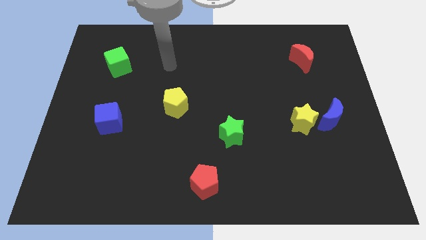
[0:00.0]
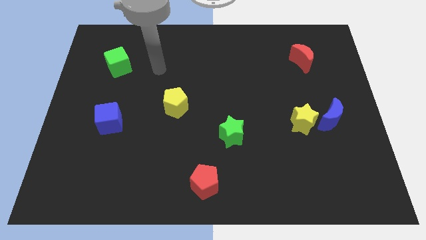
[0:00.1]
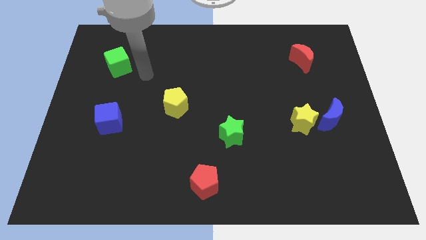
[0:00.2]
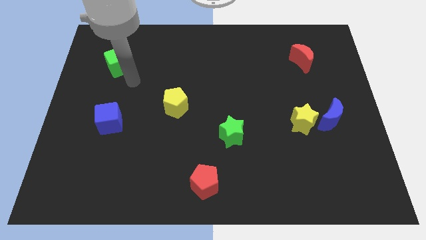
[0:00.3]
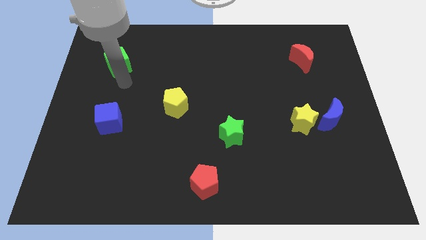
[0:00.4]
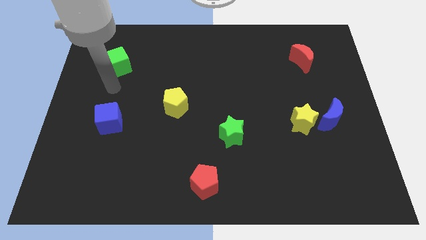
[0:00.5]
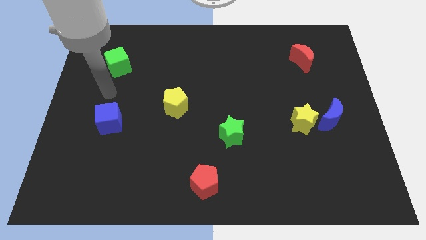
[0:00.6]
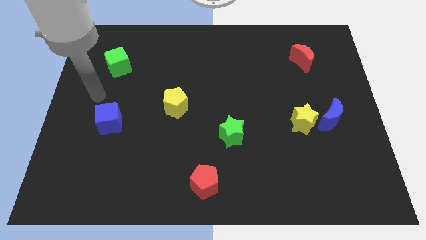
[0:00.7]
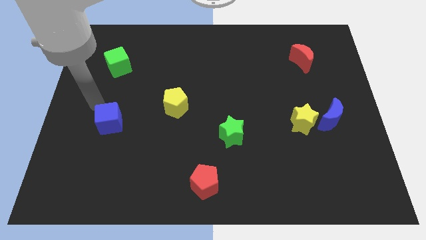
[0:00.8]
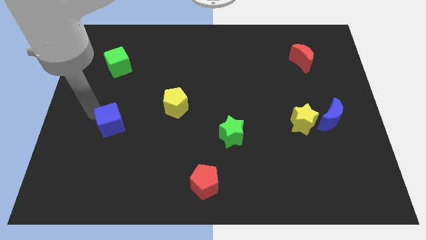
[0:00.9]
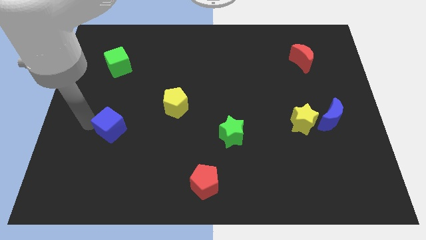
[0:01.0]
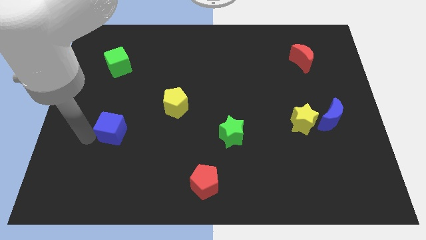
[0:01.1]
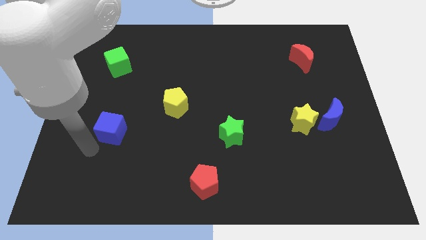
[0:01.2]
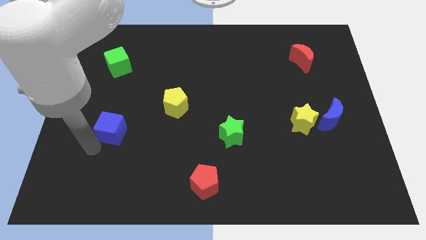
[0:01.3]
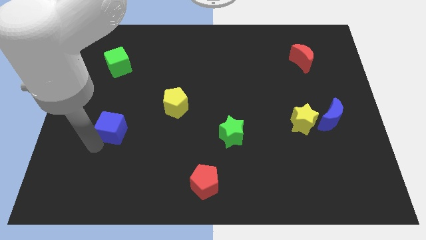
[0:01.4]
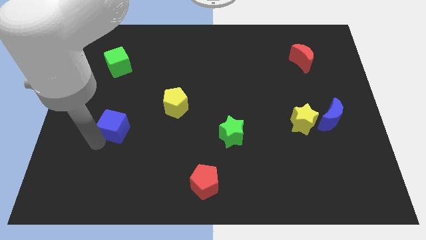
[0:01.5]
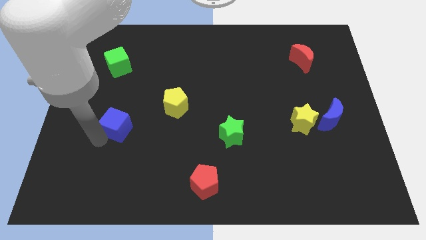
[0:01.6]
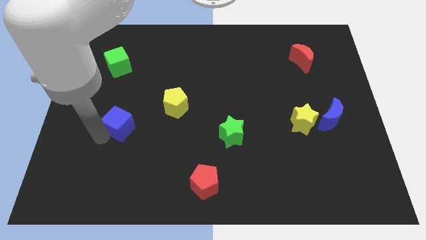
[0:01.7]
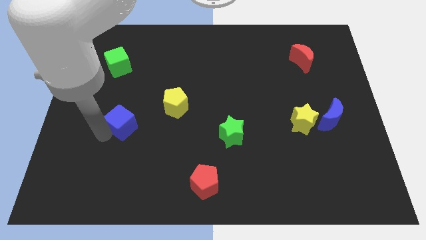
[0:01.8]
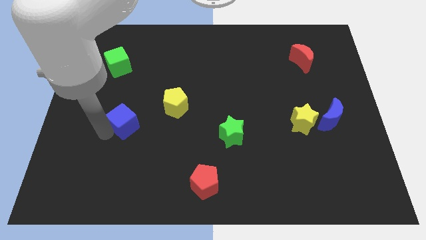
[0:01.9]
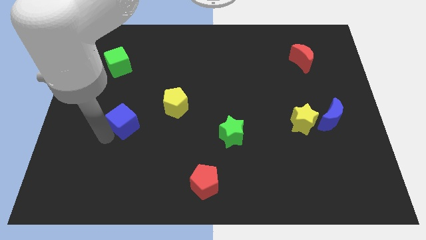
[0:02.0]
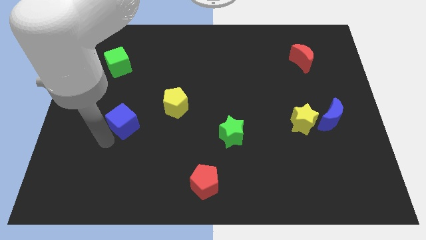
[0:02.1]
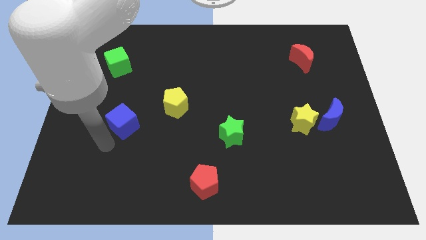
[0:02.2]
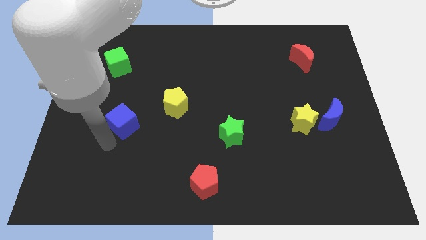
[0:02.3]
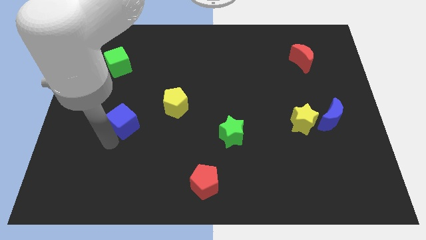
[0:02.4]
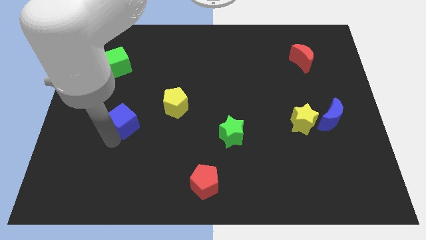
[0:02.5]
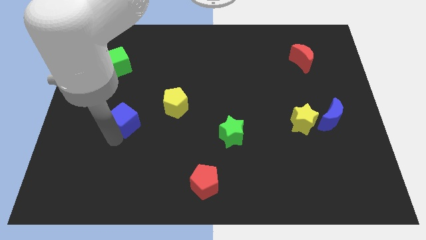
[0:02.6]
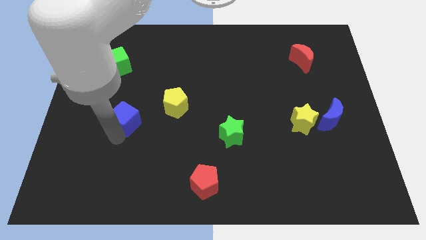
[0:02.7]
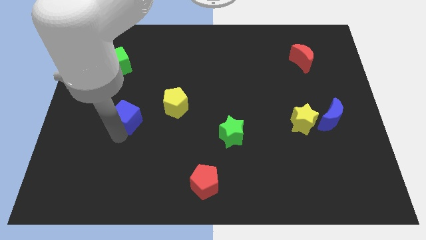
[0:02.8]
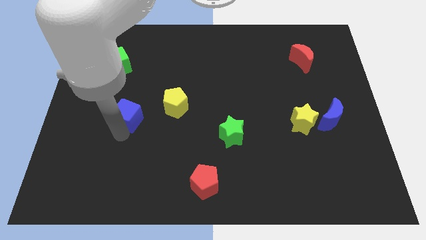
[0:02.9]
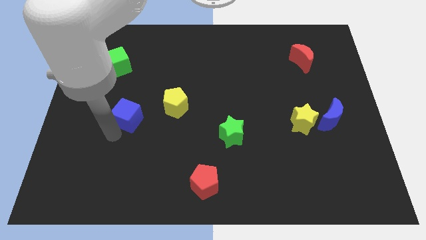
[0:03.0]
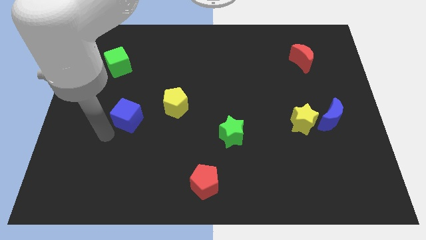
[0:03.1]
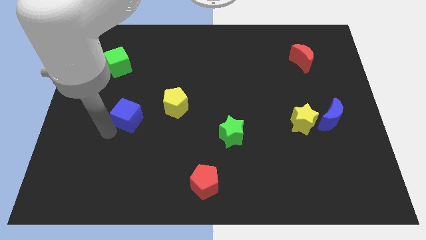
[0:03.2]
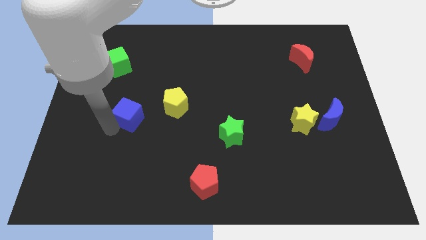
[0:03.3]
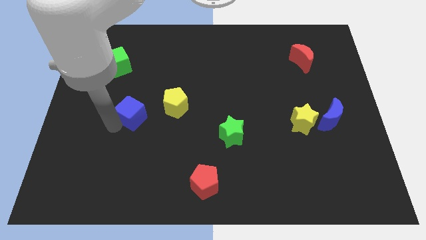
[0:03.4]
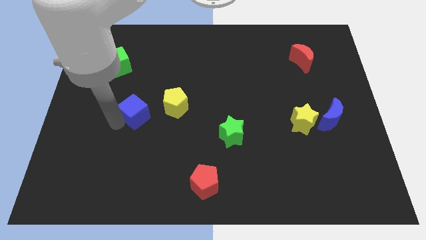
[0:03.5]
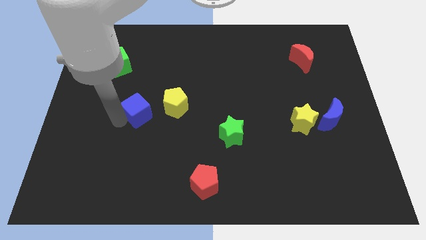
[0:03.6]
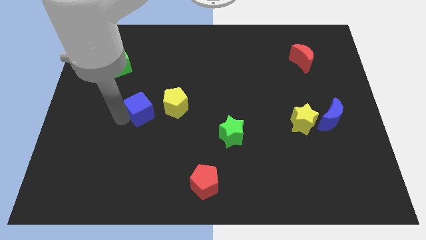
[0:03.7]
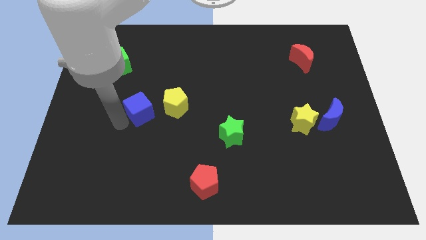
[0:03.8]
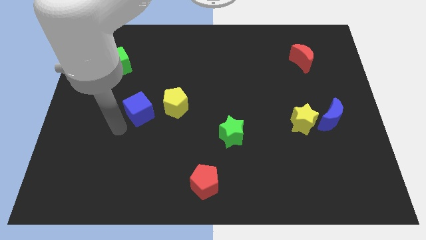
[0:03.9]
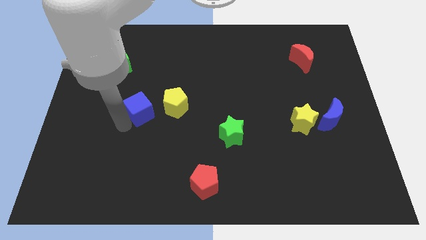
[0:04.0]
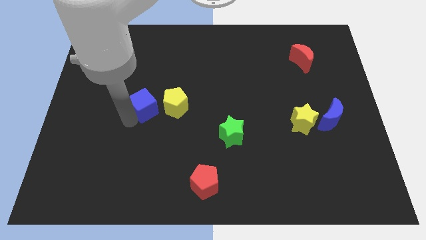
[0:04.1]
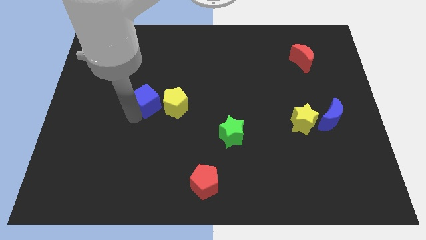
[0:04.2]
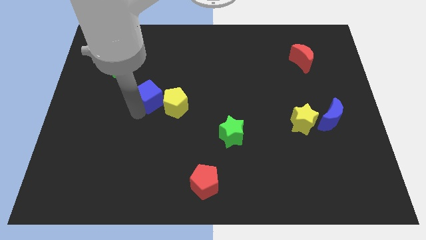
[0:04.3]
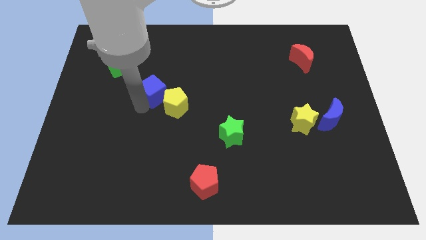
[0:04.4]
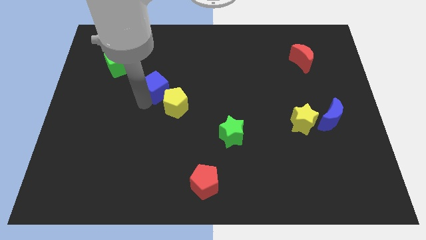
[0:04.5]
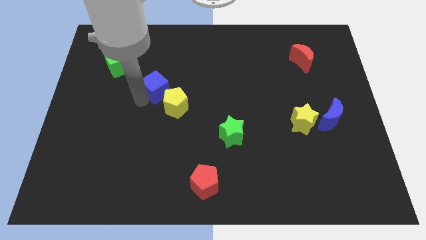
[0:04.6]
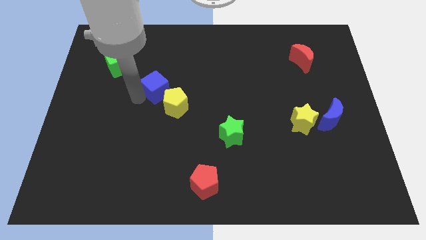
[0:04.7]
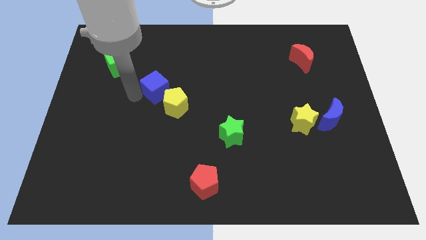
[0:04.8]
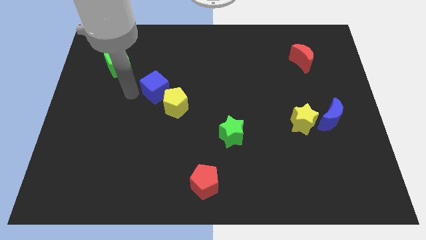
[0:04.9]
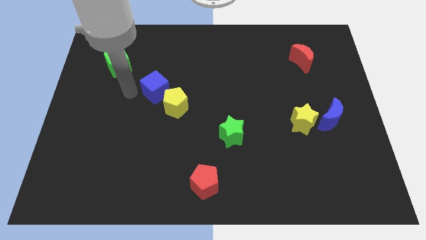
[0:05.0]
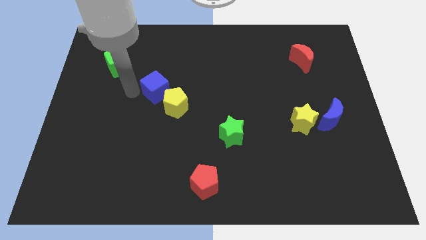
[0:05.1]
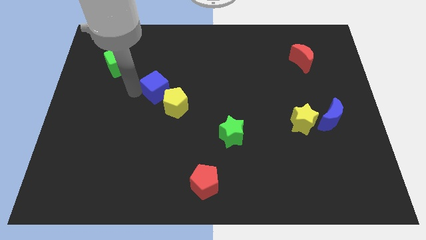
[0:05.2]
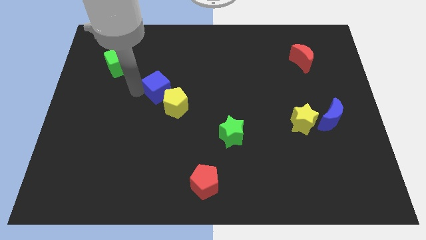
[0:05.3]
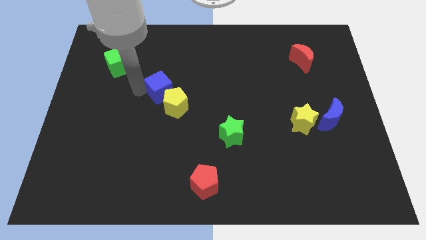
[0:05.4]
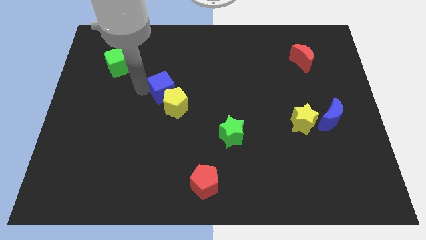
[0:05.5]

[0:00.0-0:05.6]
move the blue cube to the center of the board

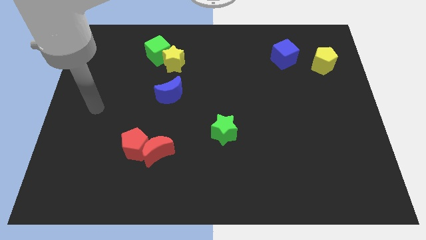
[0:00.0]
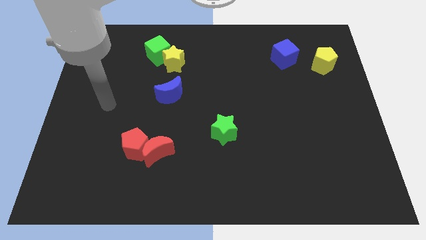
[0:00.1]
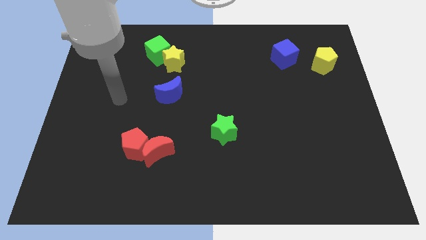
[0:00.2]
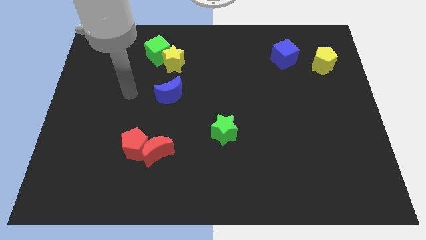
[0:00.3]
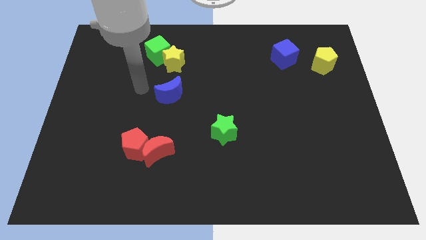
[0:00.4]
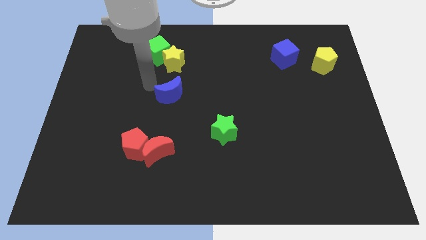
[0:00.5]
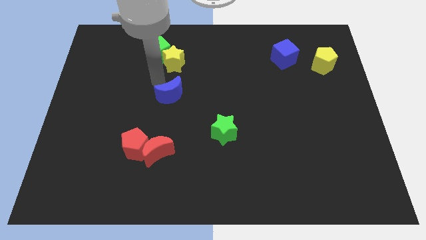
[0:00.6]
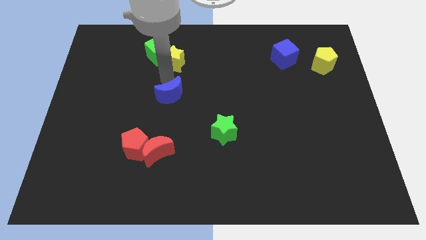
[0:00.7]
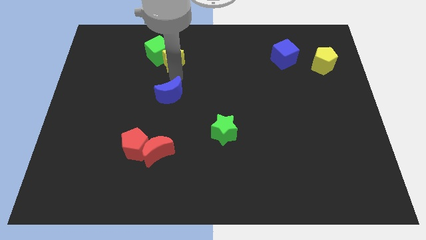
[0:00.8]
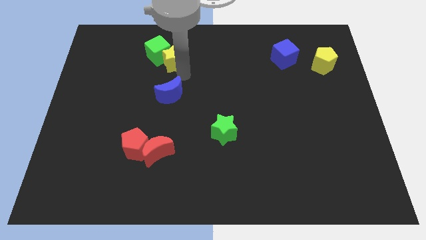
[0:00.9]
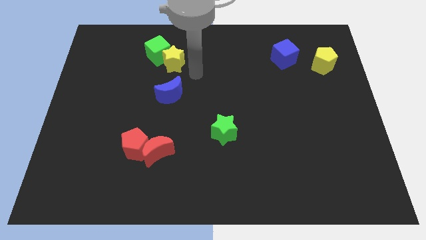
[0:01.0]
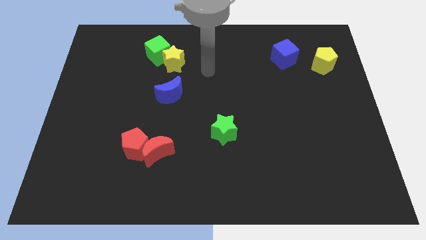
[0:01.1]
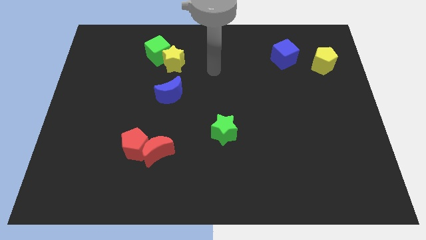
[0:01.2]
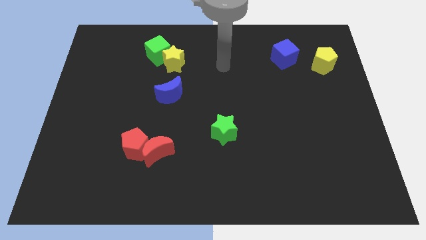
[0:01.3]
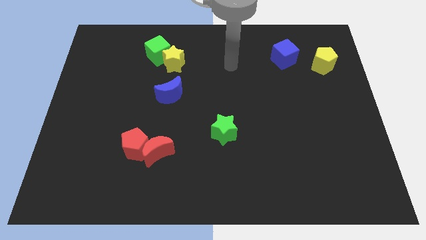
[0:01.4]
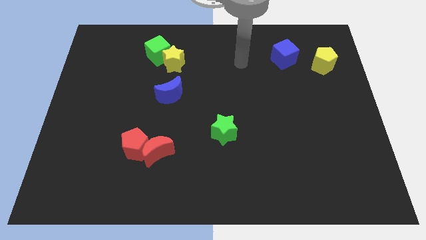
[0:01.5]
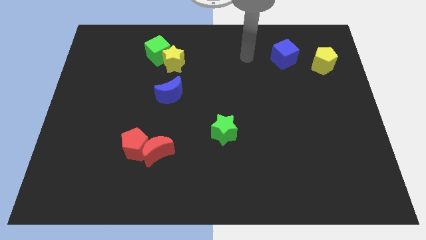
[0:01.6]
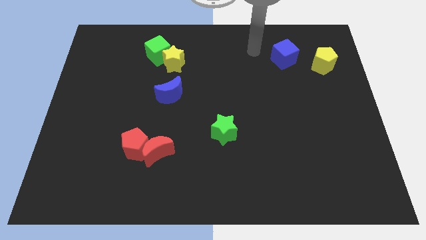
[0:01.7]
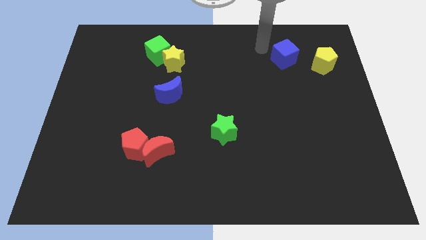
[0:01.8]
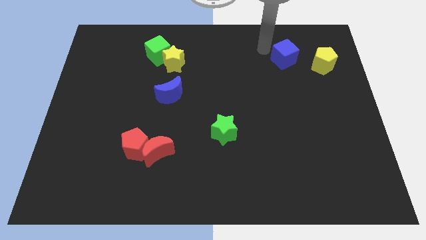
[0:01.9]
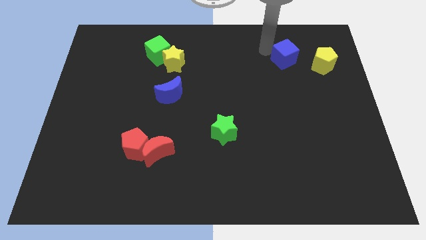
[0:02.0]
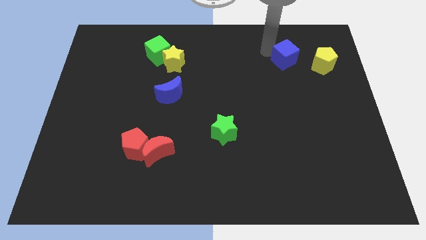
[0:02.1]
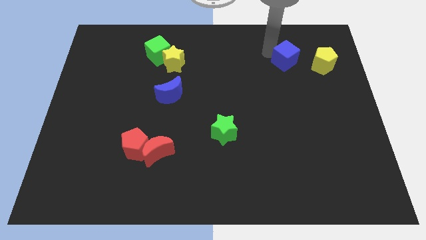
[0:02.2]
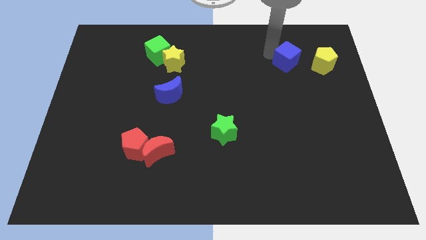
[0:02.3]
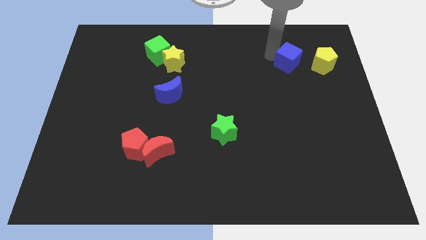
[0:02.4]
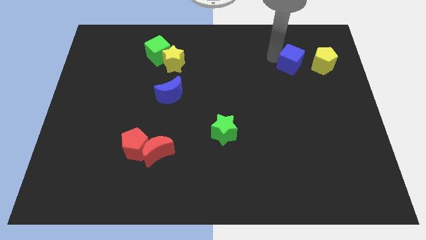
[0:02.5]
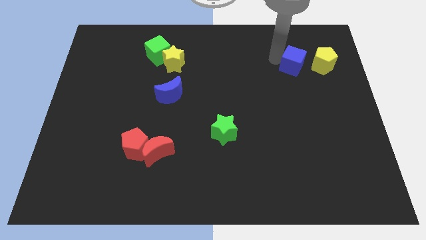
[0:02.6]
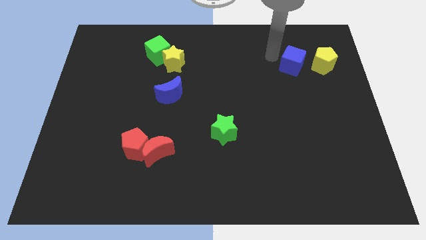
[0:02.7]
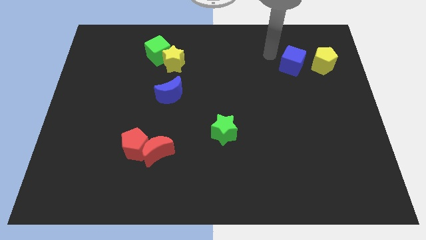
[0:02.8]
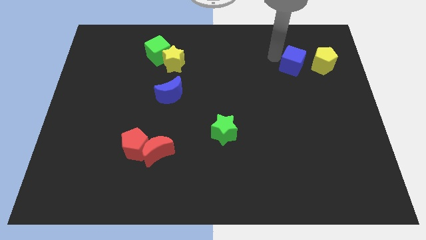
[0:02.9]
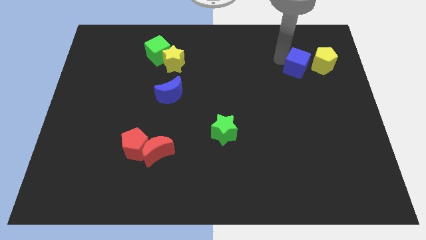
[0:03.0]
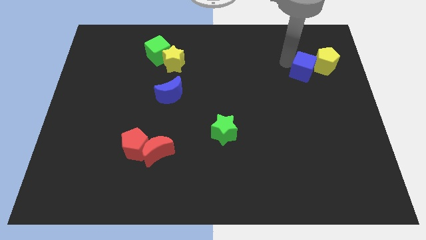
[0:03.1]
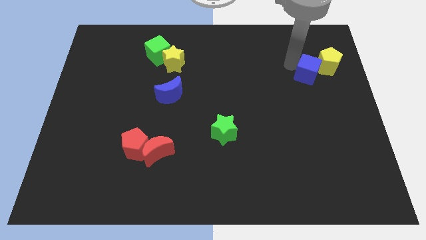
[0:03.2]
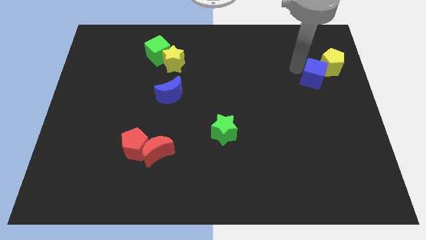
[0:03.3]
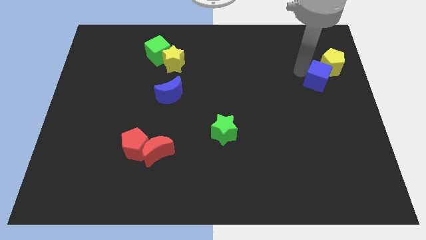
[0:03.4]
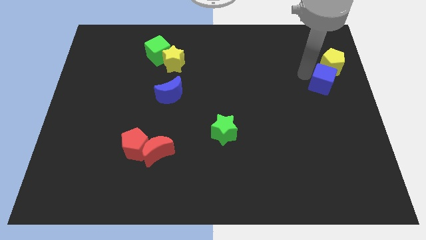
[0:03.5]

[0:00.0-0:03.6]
push the blue cube to the right side
